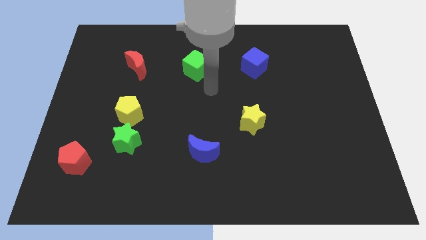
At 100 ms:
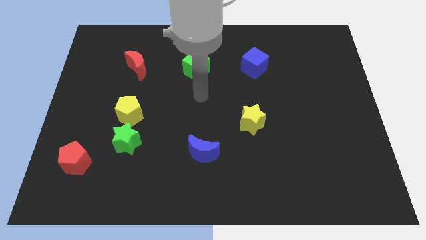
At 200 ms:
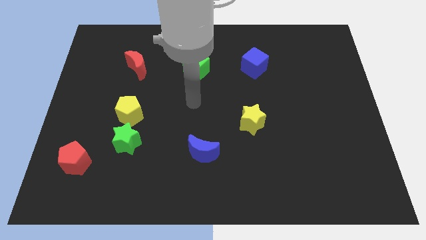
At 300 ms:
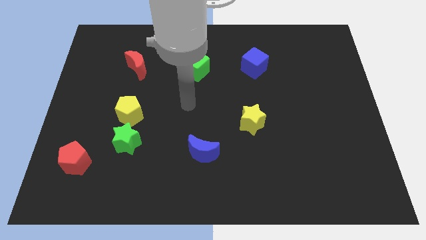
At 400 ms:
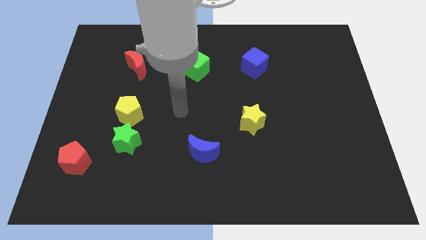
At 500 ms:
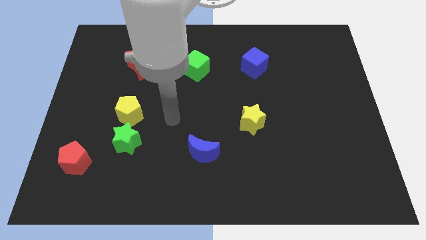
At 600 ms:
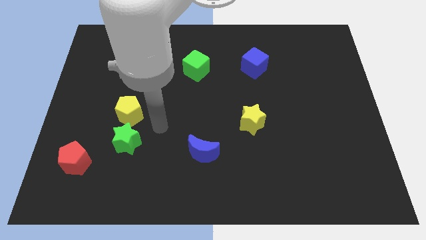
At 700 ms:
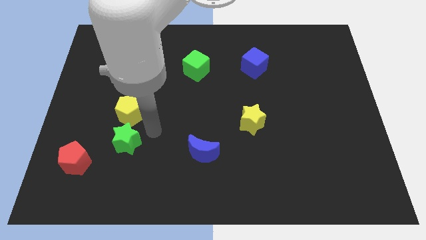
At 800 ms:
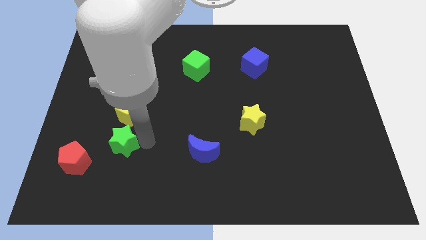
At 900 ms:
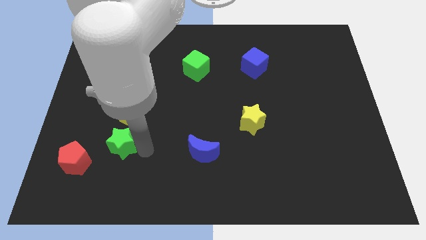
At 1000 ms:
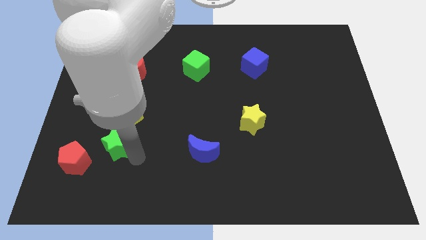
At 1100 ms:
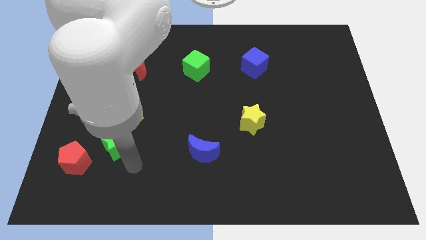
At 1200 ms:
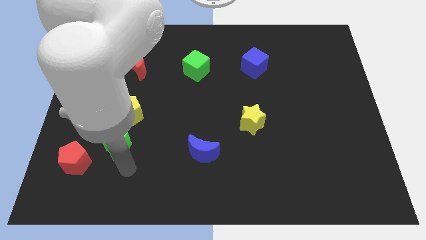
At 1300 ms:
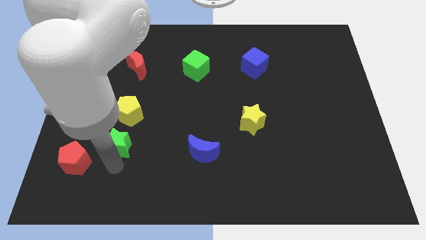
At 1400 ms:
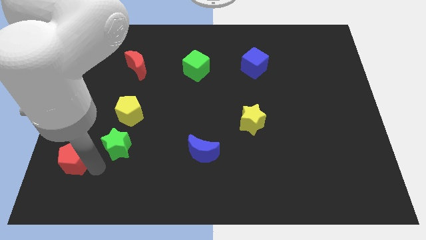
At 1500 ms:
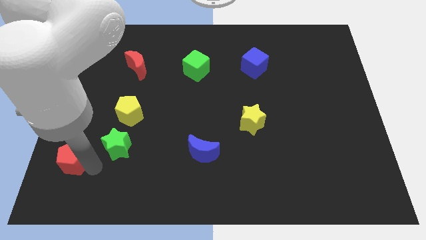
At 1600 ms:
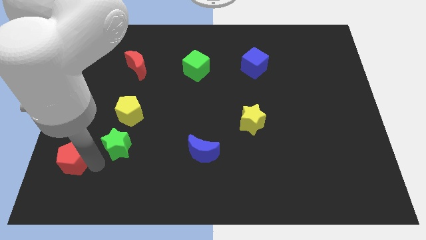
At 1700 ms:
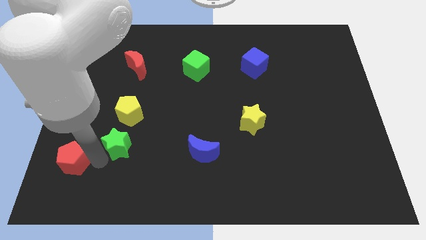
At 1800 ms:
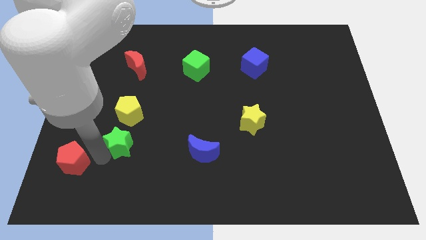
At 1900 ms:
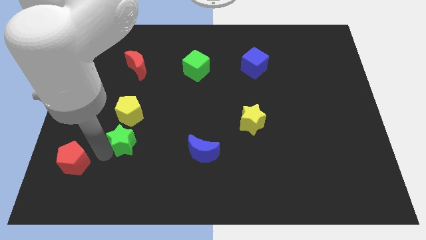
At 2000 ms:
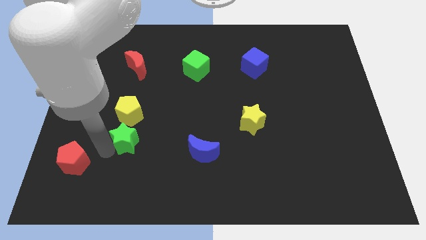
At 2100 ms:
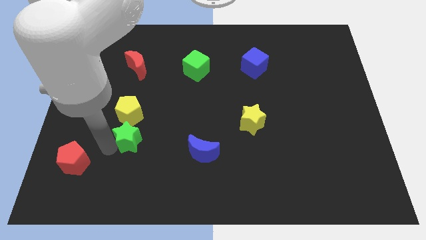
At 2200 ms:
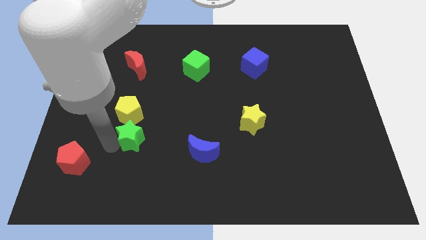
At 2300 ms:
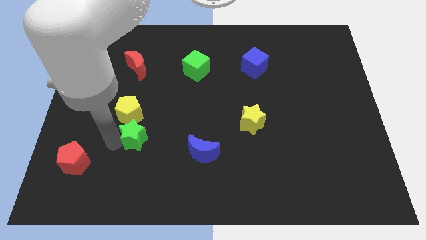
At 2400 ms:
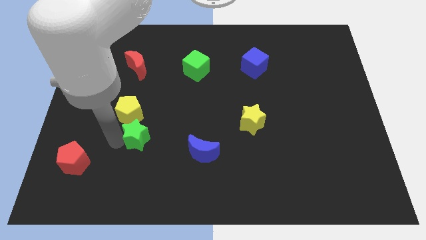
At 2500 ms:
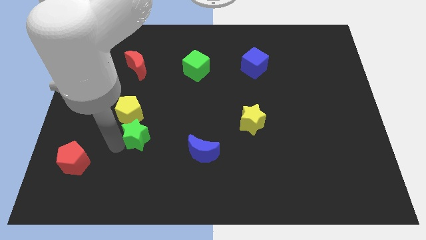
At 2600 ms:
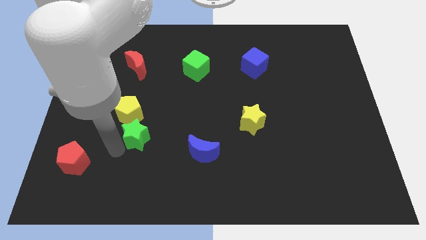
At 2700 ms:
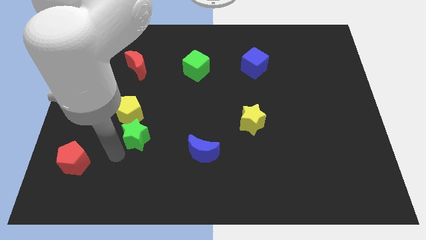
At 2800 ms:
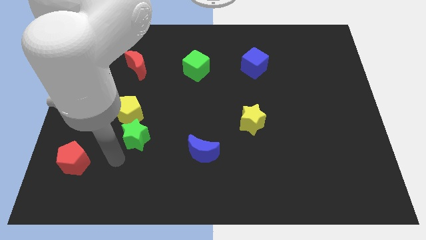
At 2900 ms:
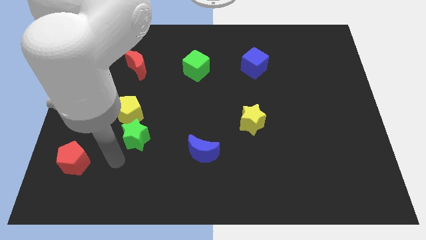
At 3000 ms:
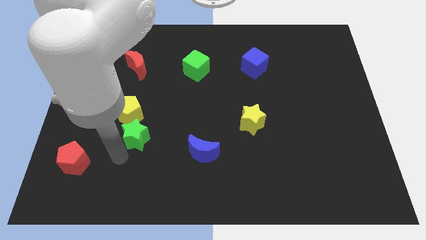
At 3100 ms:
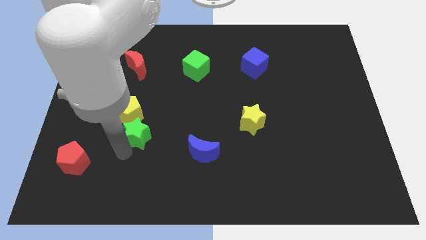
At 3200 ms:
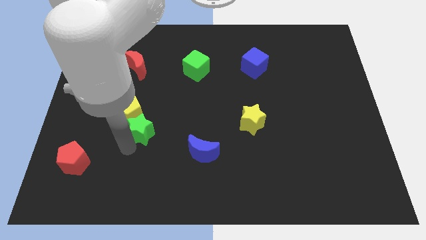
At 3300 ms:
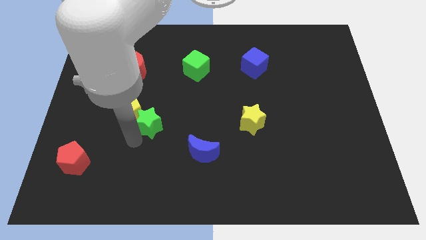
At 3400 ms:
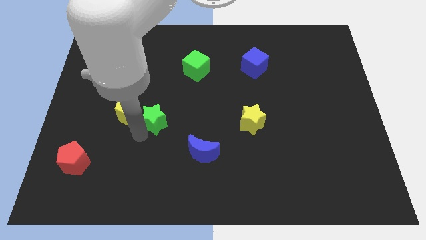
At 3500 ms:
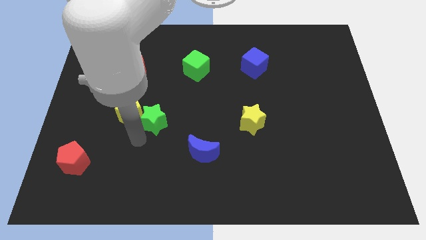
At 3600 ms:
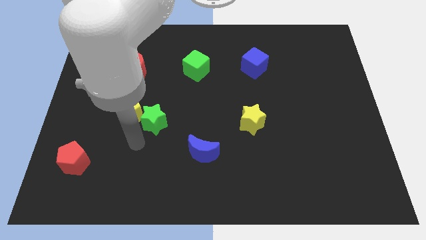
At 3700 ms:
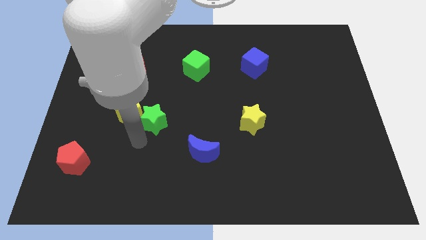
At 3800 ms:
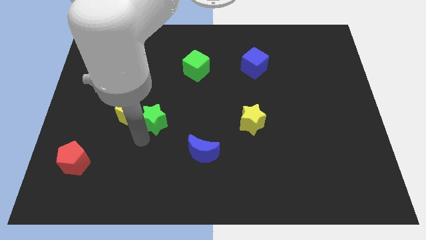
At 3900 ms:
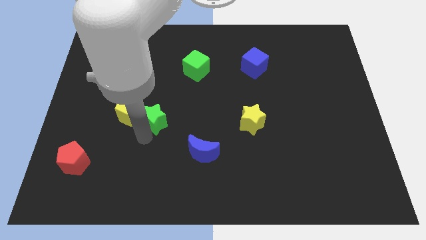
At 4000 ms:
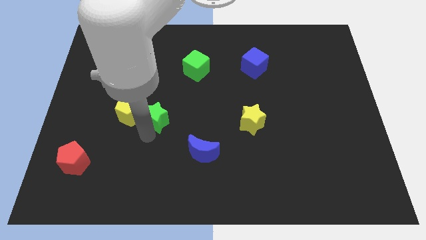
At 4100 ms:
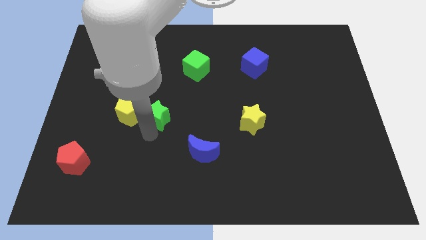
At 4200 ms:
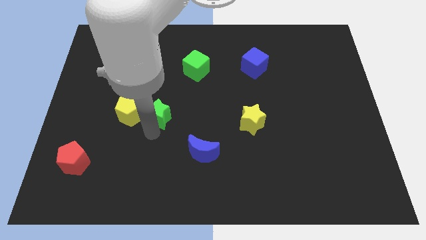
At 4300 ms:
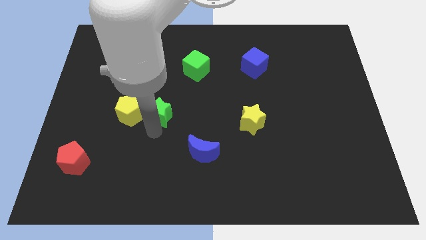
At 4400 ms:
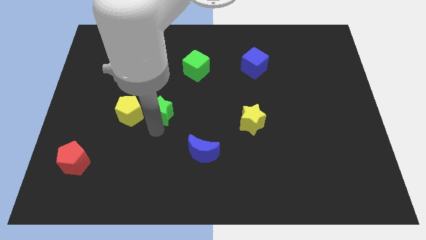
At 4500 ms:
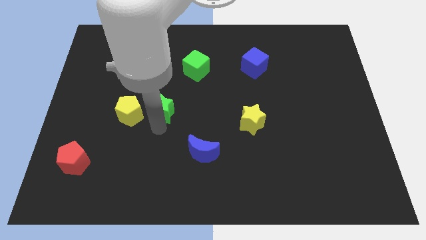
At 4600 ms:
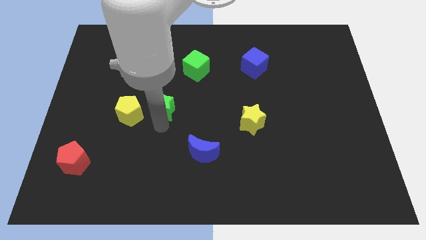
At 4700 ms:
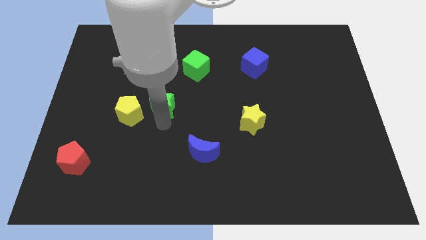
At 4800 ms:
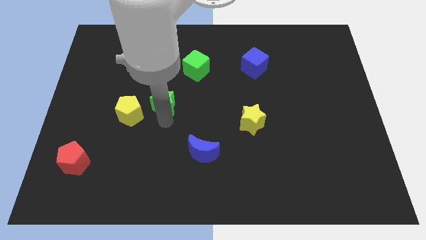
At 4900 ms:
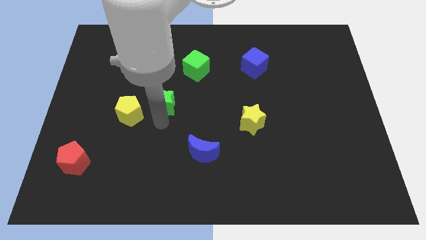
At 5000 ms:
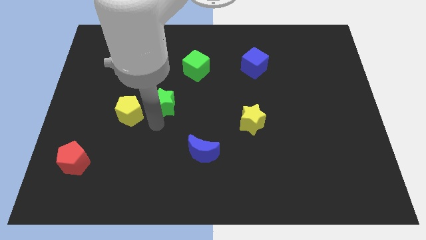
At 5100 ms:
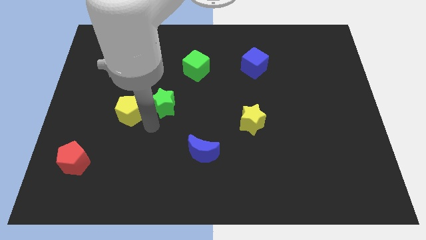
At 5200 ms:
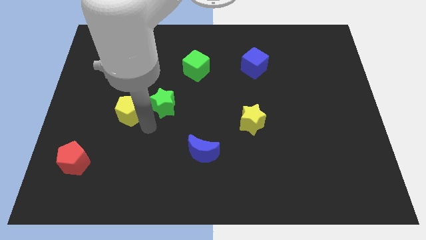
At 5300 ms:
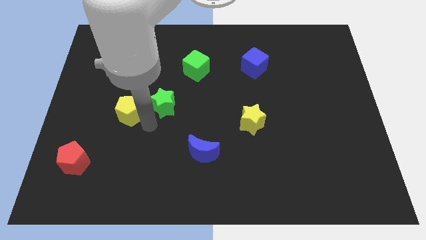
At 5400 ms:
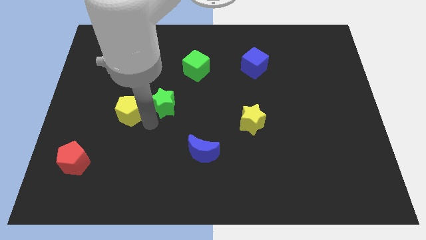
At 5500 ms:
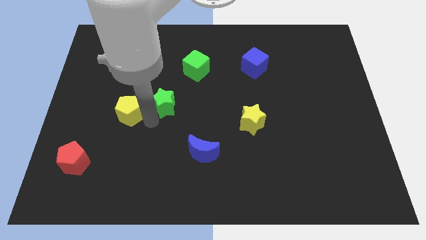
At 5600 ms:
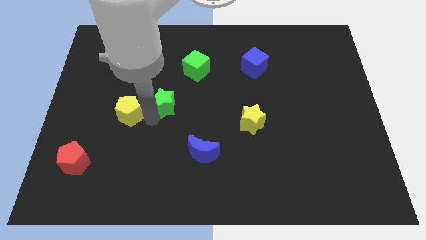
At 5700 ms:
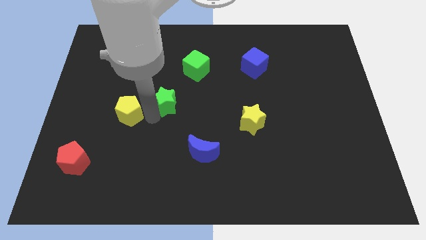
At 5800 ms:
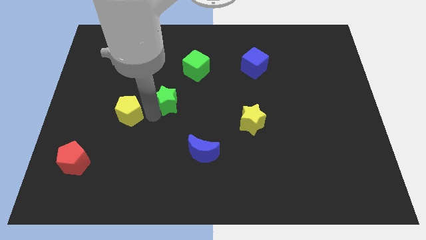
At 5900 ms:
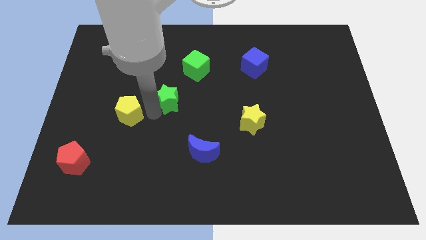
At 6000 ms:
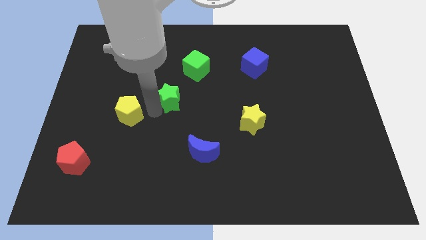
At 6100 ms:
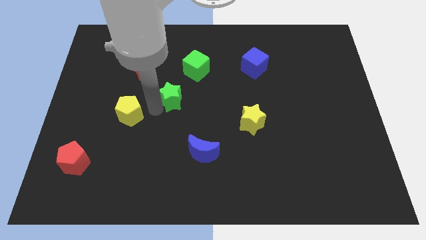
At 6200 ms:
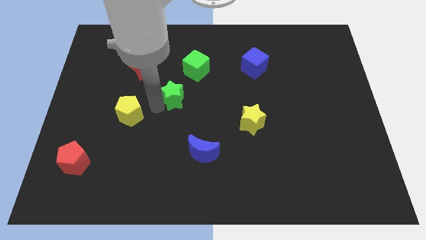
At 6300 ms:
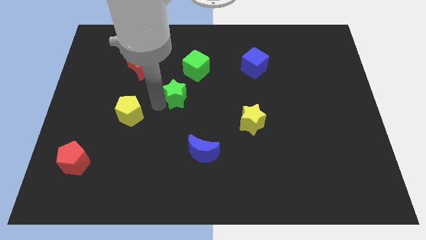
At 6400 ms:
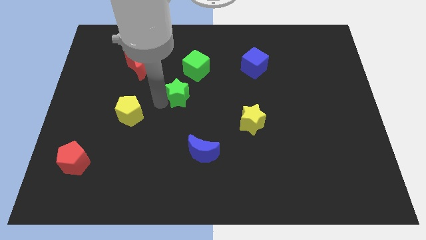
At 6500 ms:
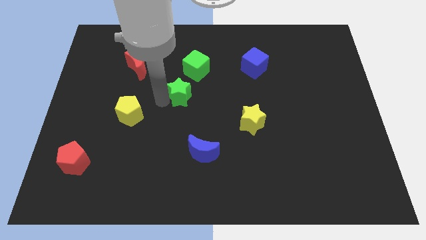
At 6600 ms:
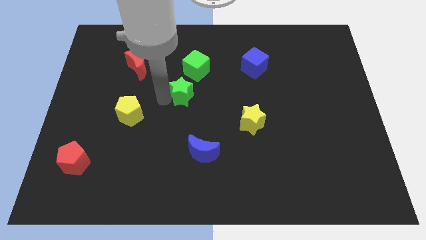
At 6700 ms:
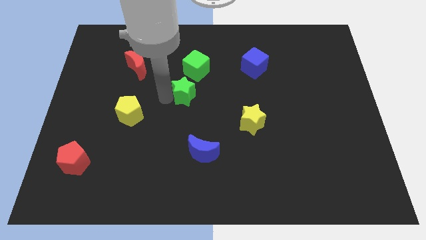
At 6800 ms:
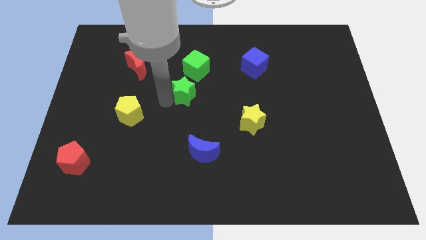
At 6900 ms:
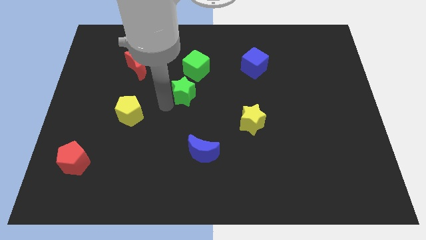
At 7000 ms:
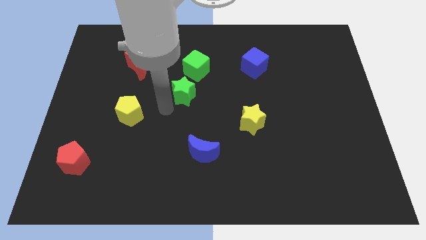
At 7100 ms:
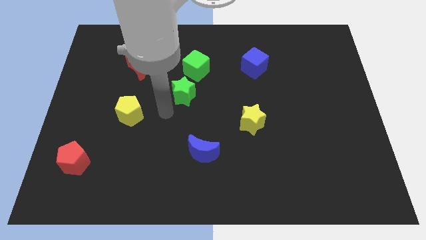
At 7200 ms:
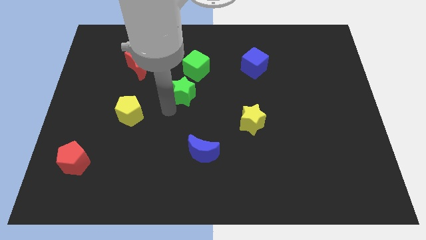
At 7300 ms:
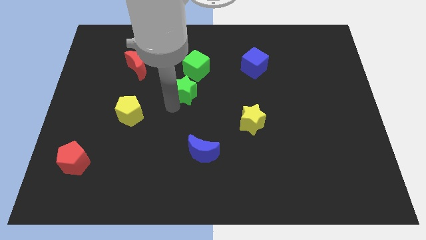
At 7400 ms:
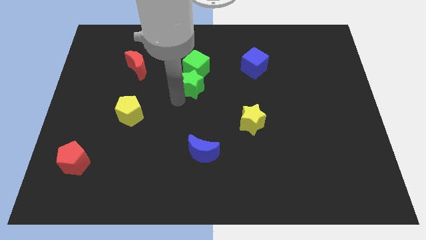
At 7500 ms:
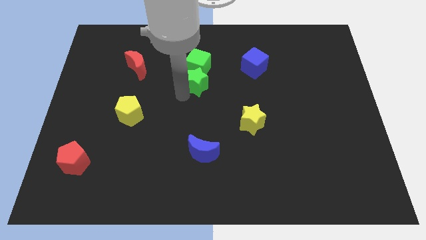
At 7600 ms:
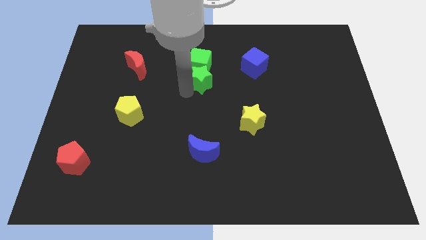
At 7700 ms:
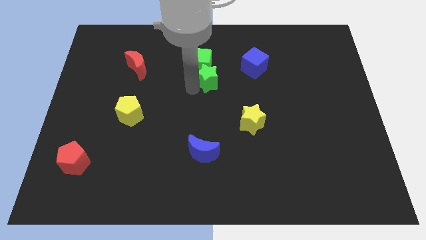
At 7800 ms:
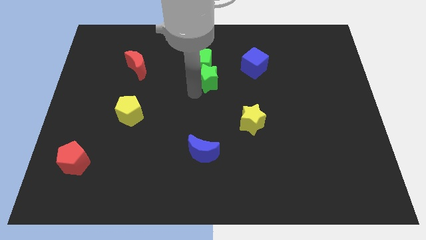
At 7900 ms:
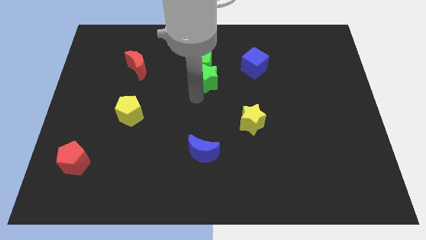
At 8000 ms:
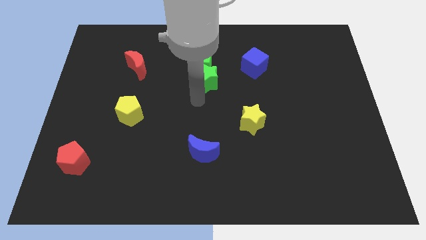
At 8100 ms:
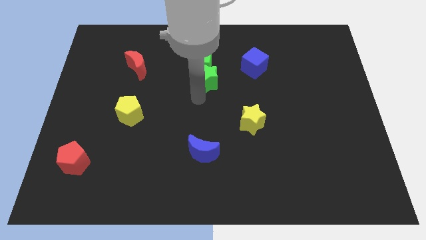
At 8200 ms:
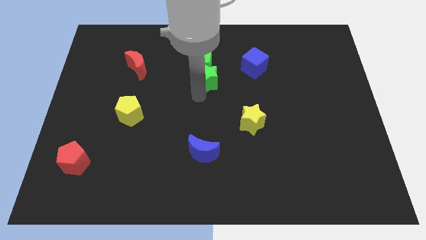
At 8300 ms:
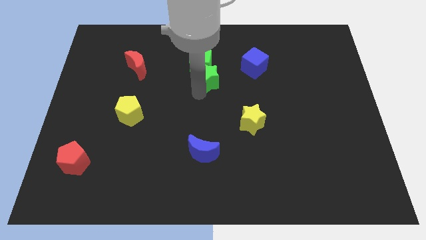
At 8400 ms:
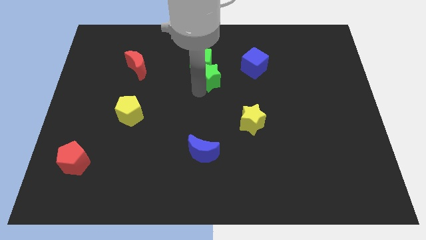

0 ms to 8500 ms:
put the green star to the left side of the blue cube
